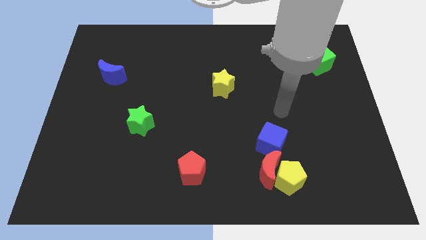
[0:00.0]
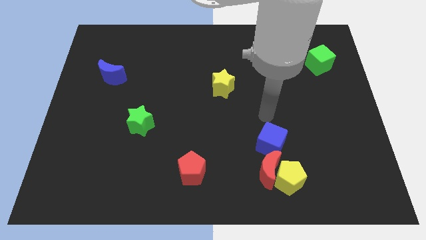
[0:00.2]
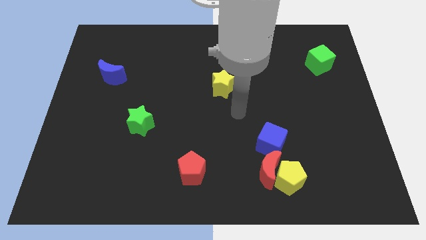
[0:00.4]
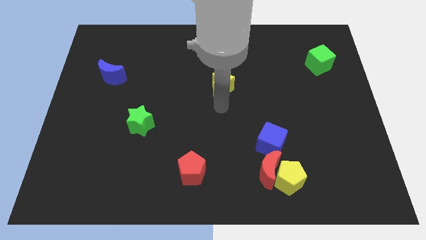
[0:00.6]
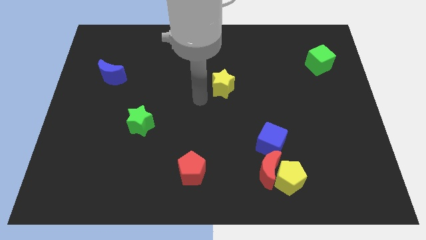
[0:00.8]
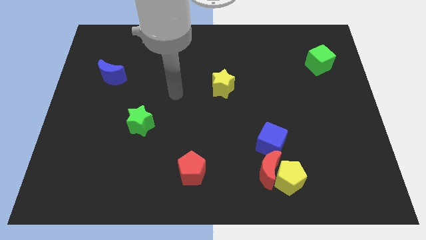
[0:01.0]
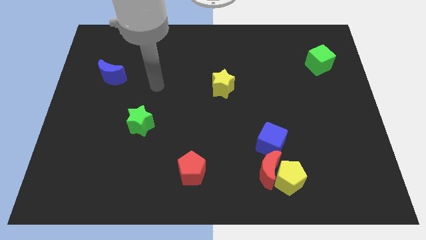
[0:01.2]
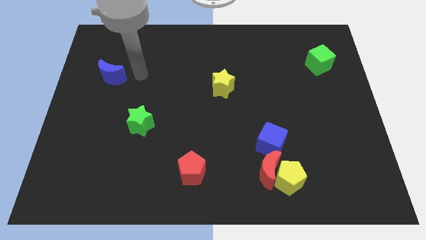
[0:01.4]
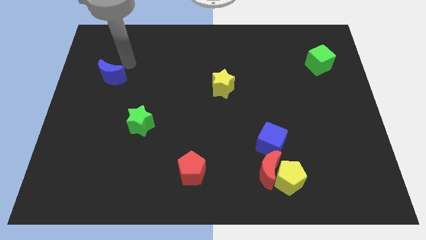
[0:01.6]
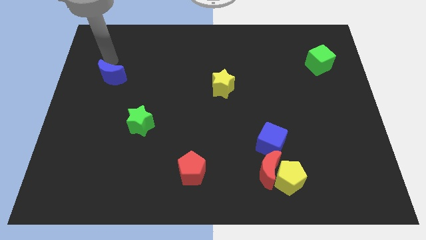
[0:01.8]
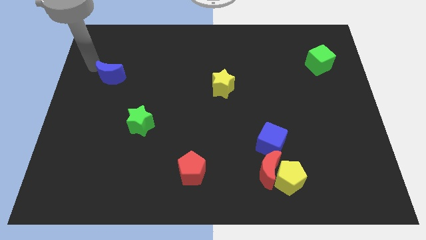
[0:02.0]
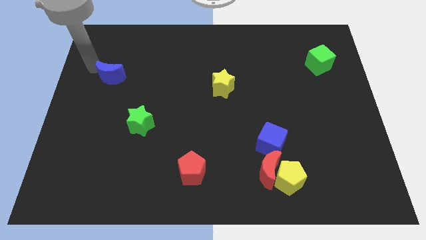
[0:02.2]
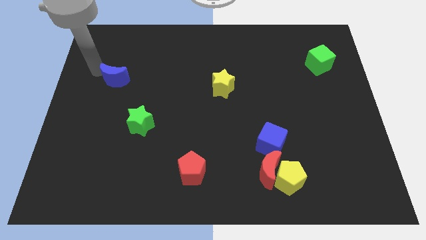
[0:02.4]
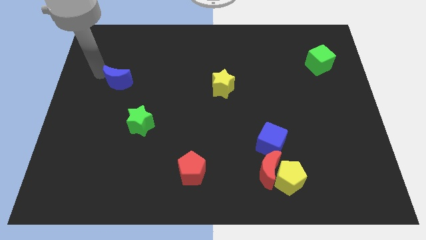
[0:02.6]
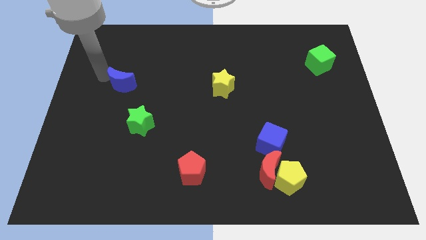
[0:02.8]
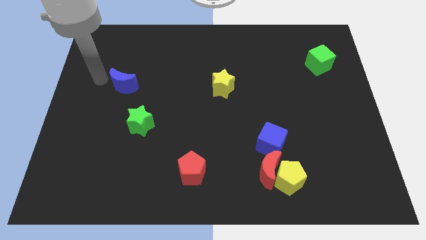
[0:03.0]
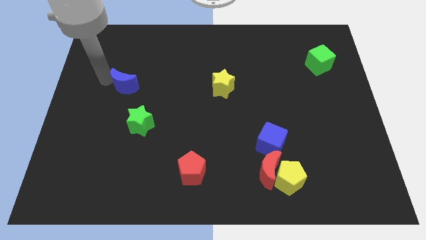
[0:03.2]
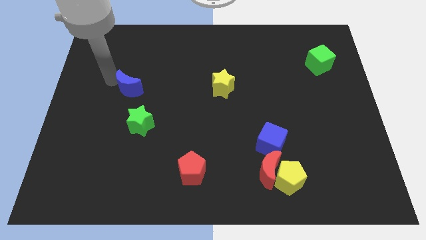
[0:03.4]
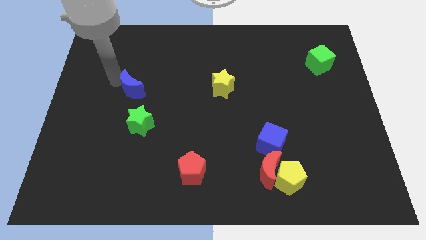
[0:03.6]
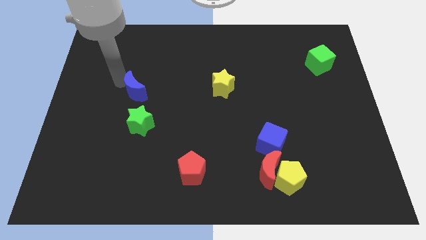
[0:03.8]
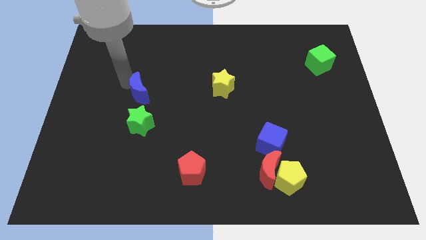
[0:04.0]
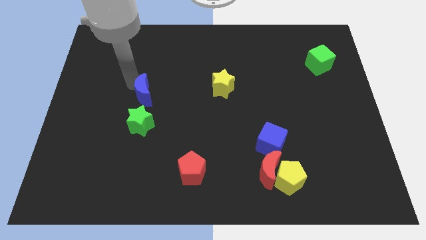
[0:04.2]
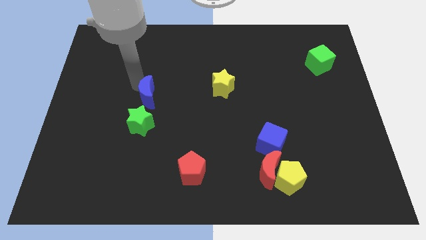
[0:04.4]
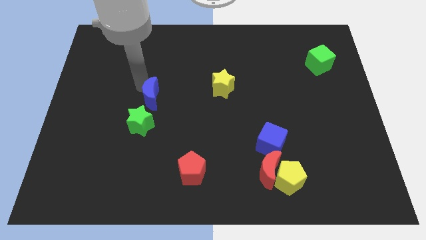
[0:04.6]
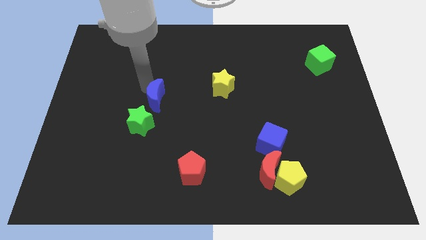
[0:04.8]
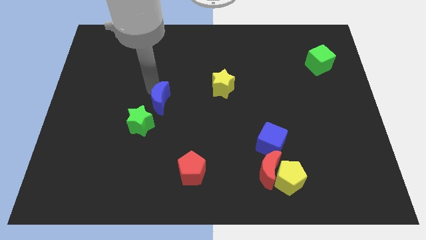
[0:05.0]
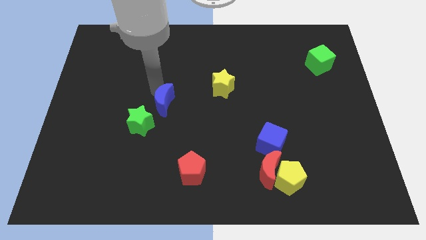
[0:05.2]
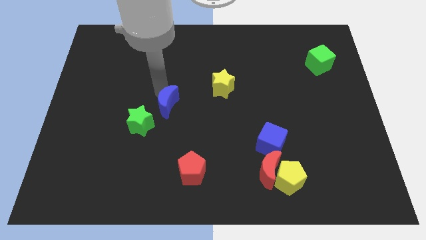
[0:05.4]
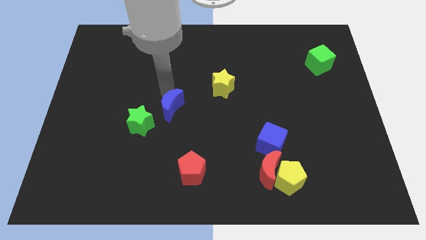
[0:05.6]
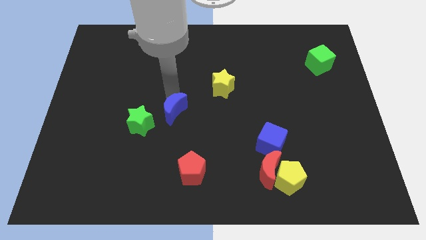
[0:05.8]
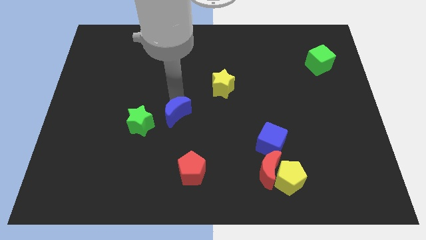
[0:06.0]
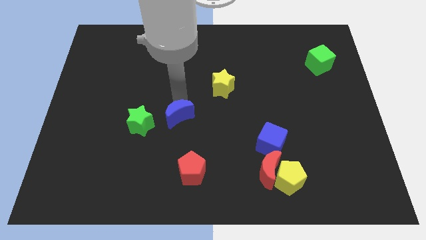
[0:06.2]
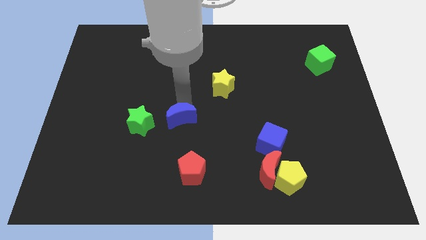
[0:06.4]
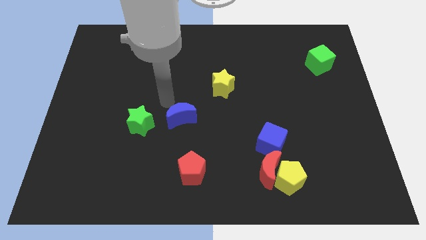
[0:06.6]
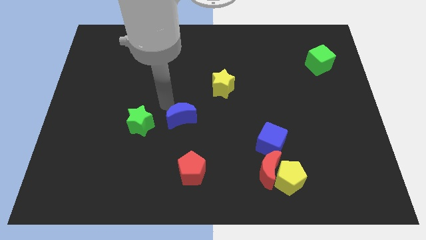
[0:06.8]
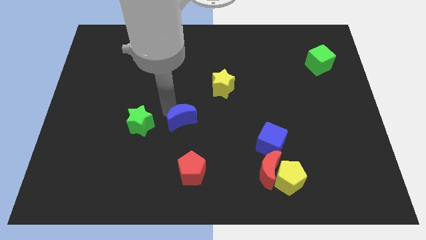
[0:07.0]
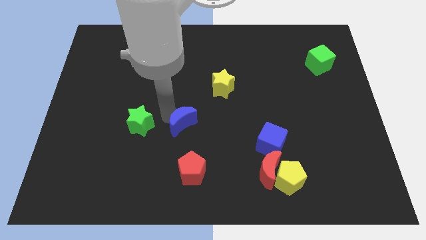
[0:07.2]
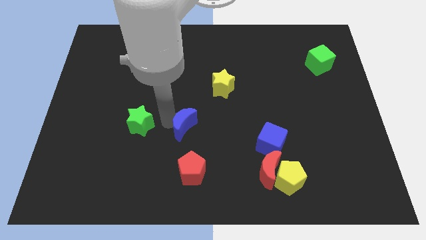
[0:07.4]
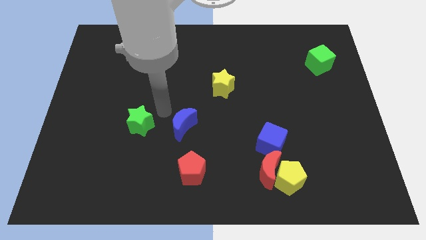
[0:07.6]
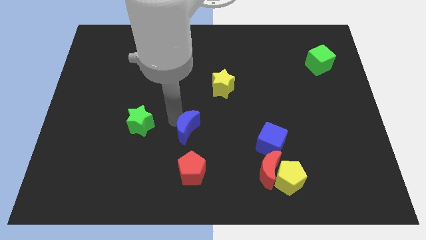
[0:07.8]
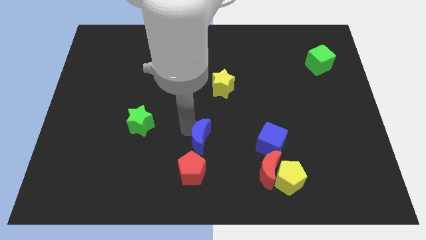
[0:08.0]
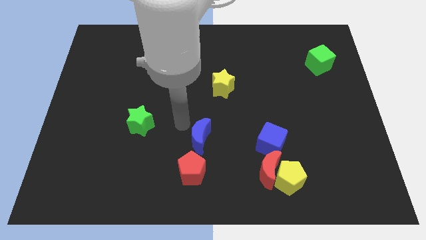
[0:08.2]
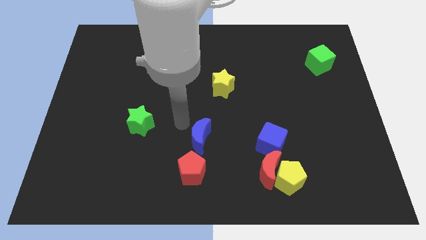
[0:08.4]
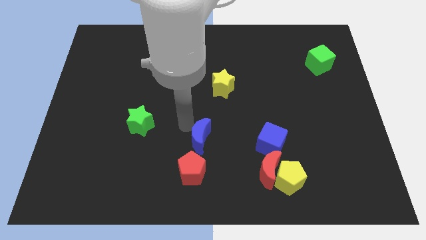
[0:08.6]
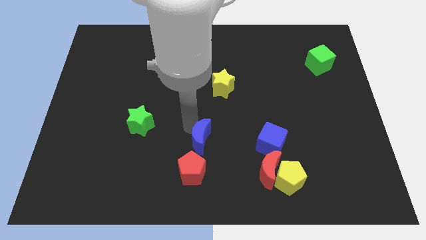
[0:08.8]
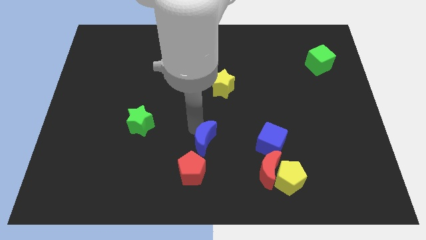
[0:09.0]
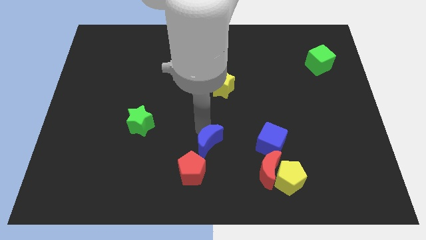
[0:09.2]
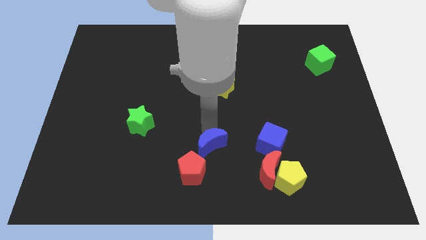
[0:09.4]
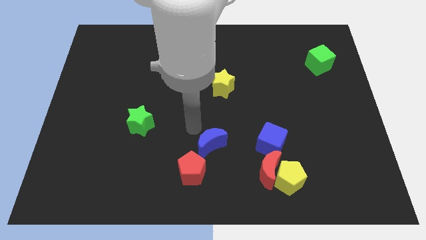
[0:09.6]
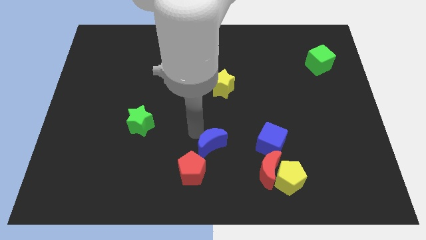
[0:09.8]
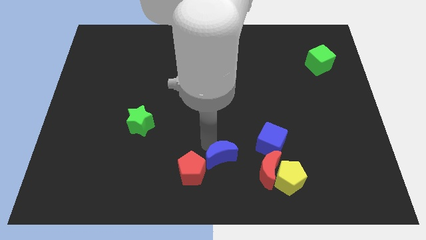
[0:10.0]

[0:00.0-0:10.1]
move the blue moon just right of the red pentagon

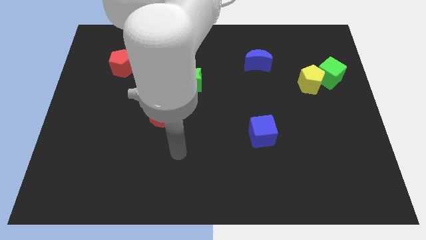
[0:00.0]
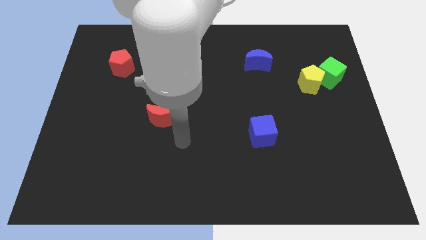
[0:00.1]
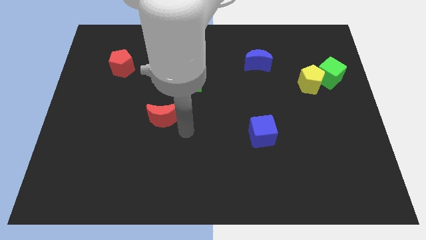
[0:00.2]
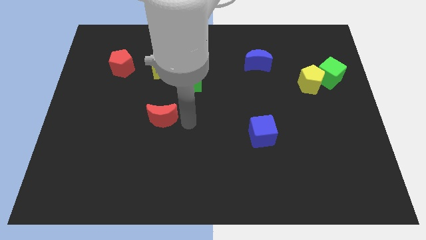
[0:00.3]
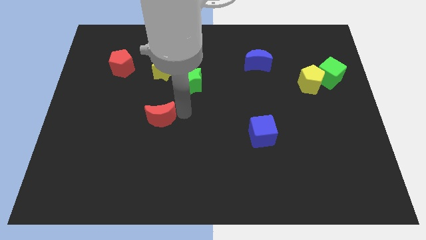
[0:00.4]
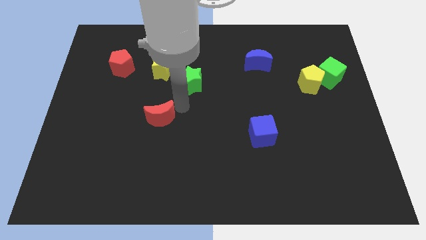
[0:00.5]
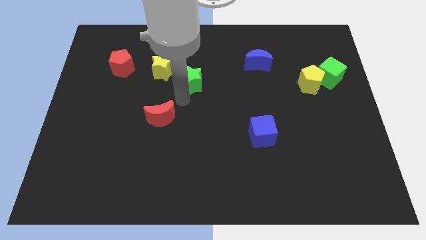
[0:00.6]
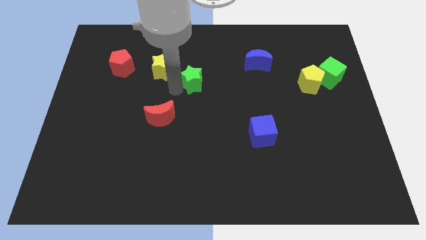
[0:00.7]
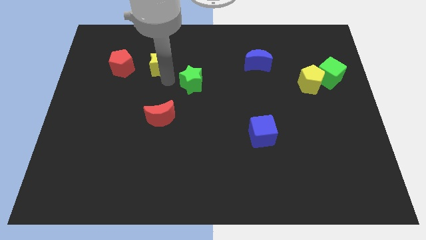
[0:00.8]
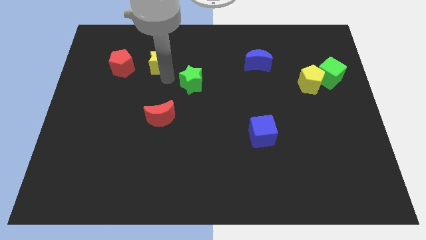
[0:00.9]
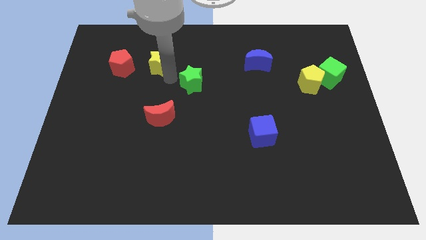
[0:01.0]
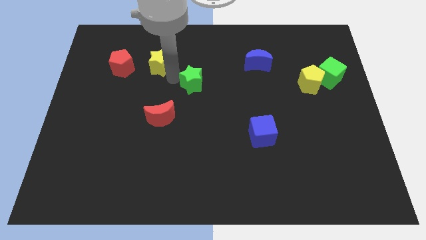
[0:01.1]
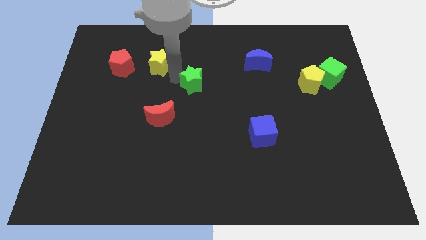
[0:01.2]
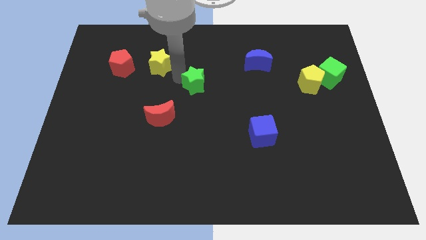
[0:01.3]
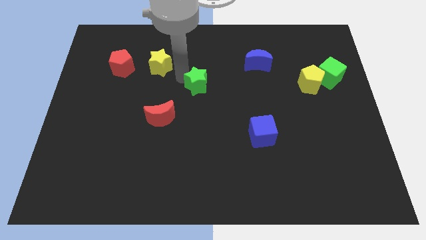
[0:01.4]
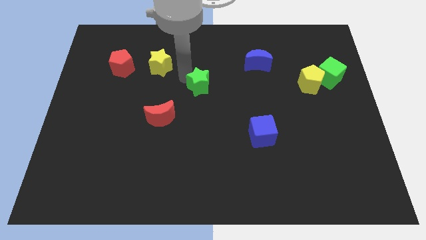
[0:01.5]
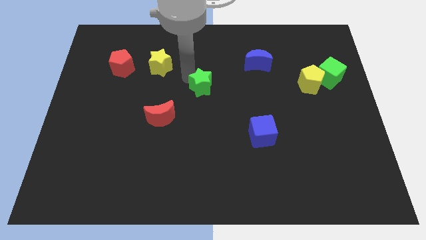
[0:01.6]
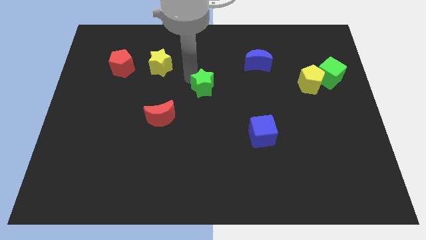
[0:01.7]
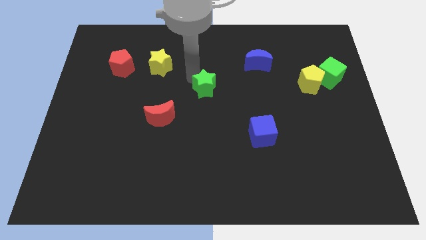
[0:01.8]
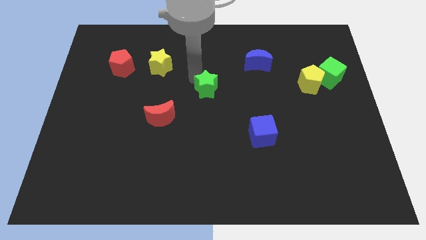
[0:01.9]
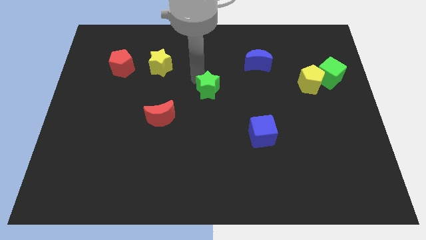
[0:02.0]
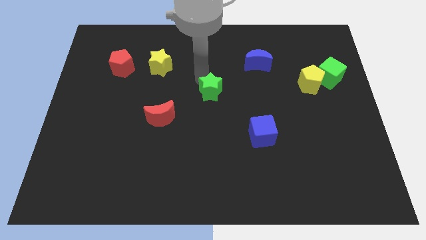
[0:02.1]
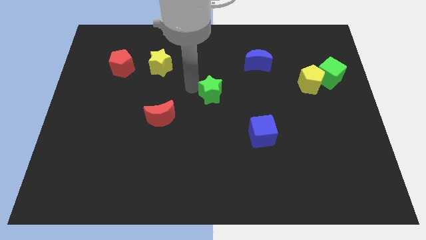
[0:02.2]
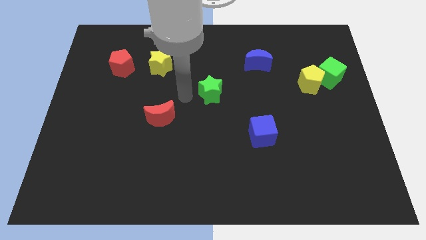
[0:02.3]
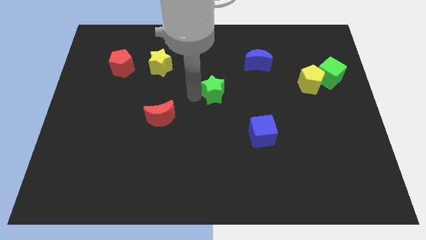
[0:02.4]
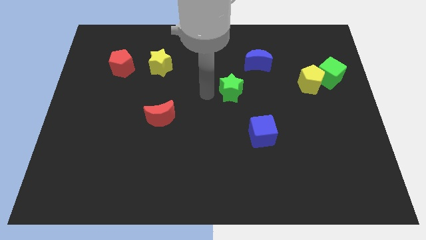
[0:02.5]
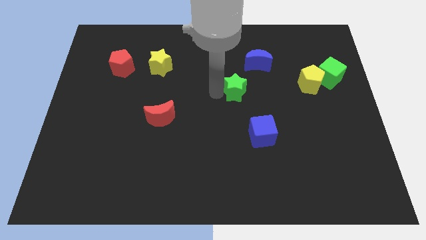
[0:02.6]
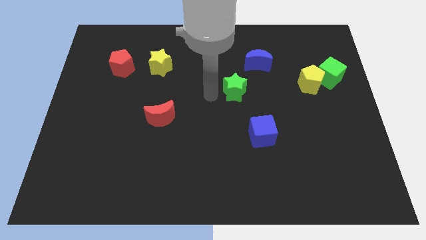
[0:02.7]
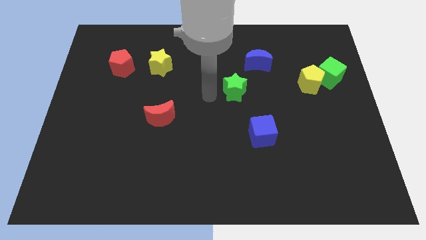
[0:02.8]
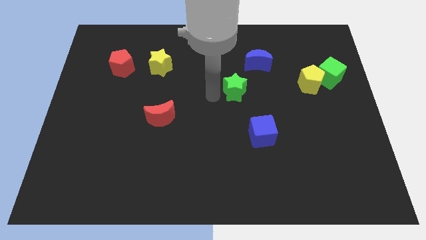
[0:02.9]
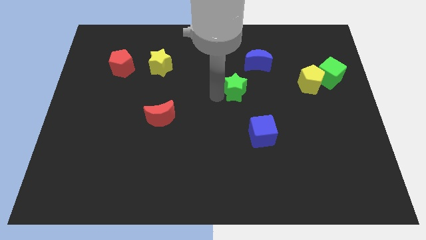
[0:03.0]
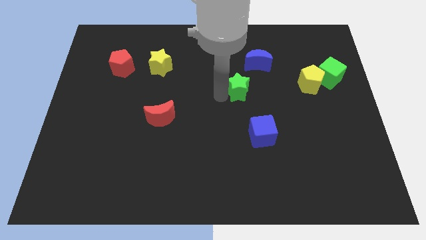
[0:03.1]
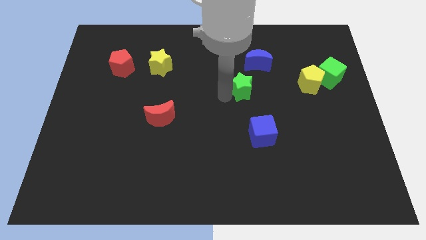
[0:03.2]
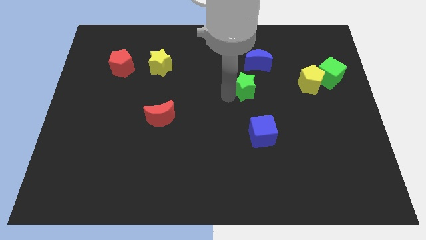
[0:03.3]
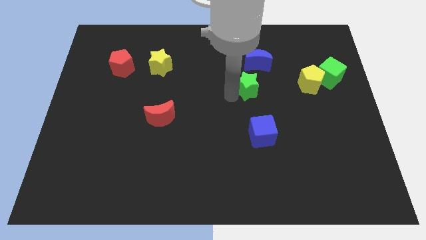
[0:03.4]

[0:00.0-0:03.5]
move the green star just left of the yellow pentagon
